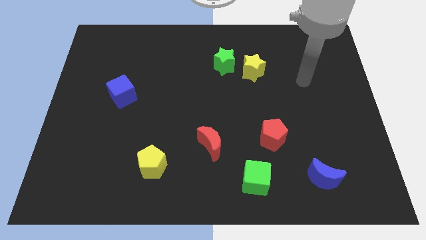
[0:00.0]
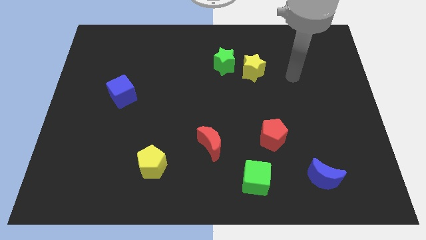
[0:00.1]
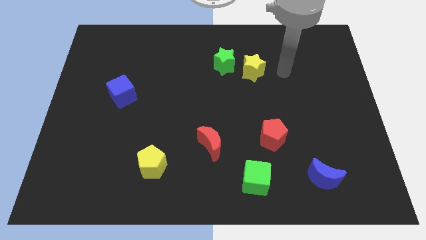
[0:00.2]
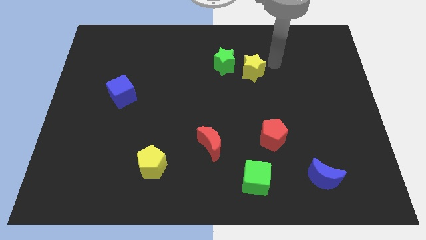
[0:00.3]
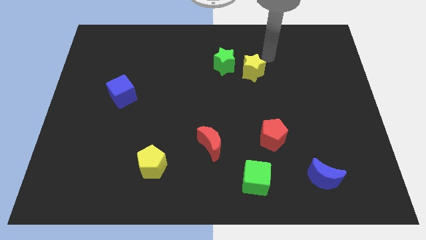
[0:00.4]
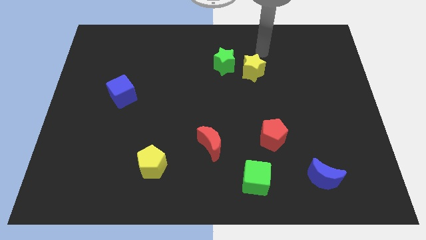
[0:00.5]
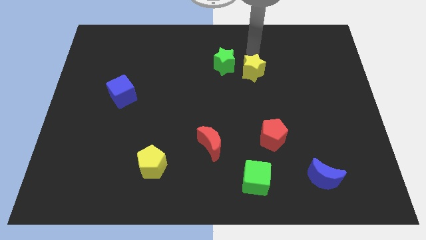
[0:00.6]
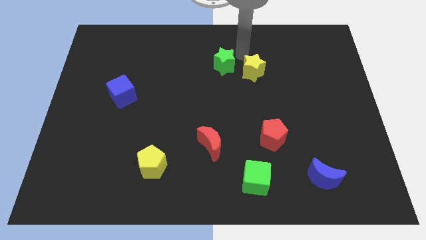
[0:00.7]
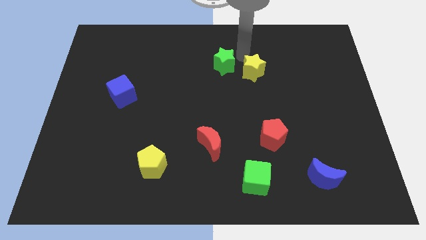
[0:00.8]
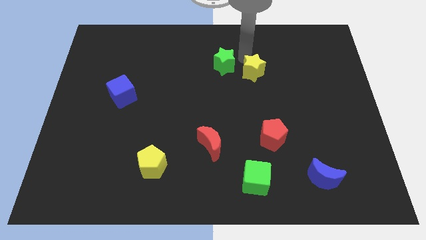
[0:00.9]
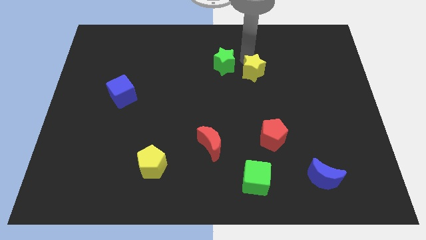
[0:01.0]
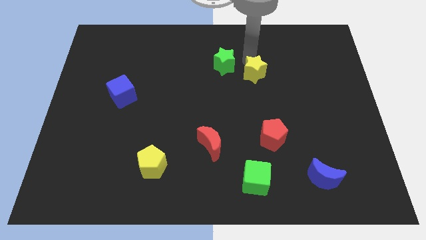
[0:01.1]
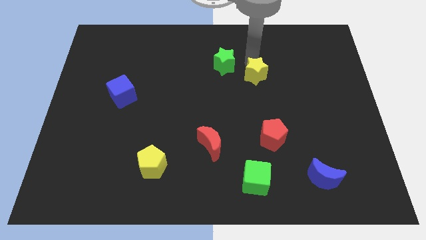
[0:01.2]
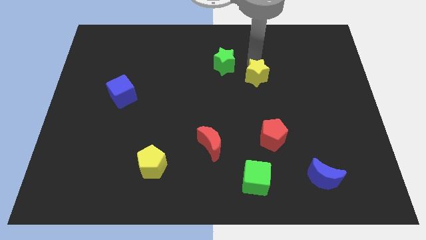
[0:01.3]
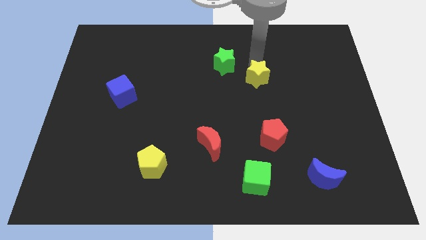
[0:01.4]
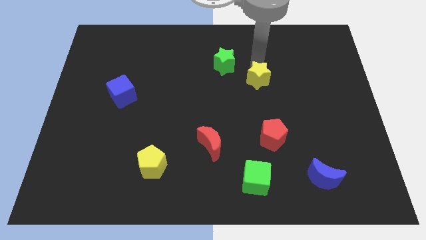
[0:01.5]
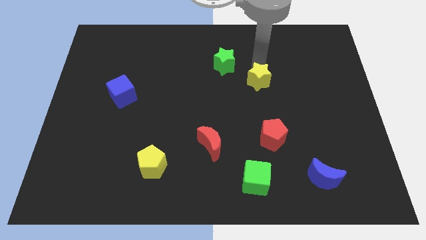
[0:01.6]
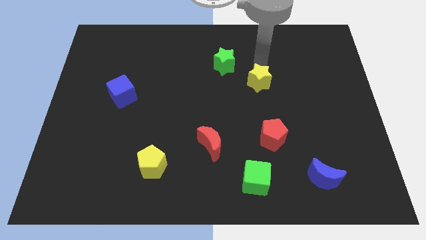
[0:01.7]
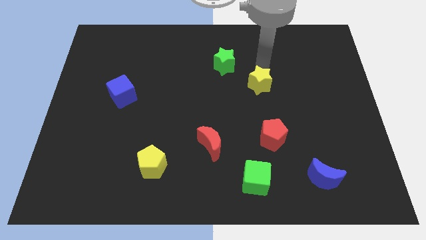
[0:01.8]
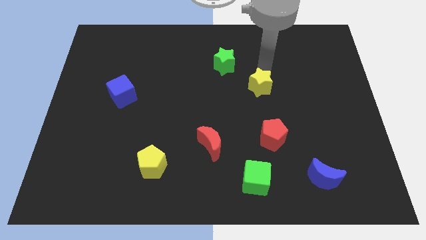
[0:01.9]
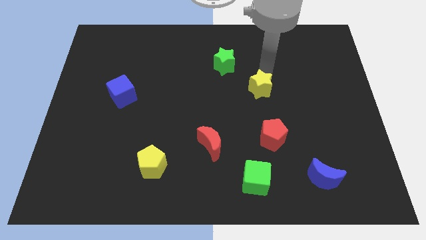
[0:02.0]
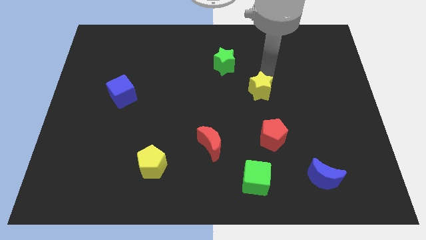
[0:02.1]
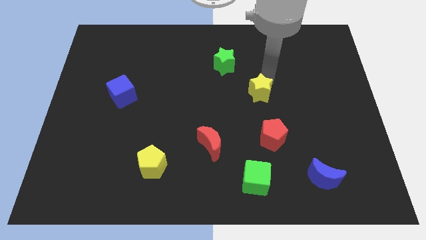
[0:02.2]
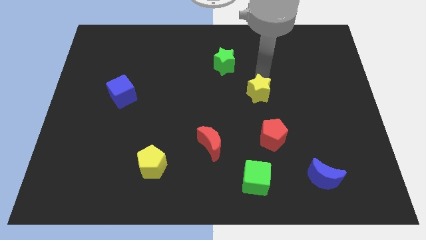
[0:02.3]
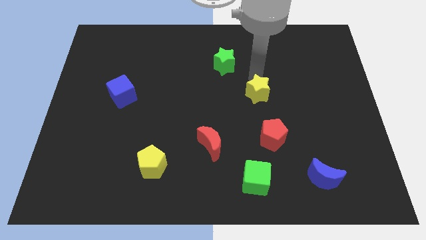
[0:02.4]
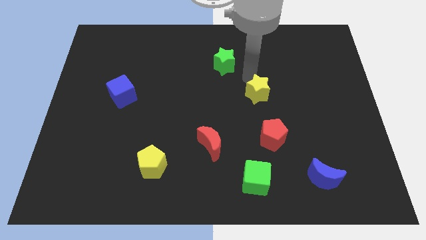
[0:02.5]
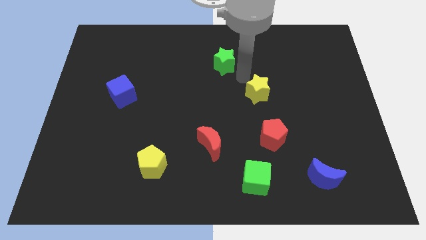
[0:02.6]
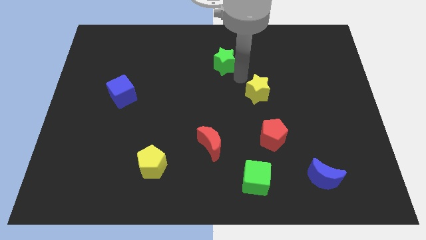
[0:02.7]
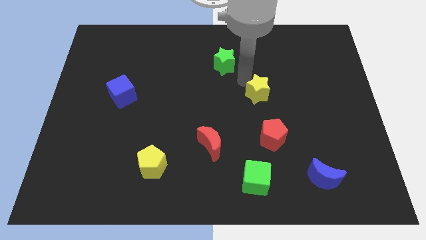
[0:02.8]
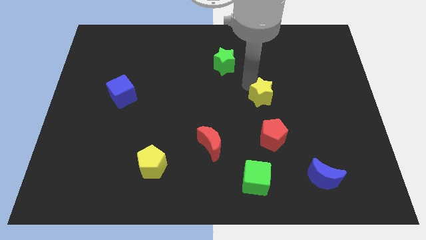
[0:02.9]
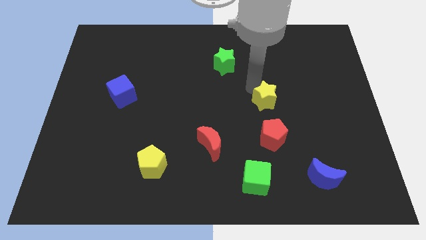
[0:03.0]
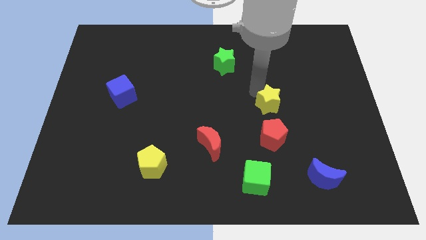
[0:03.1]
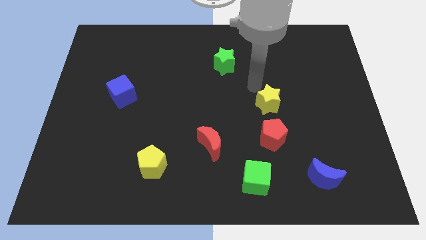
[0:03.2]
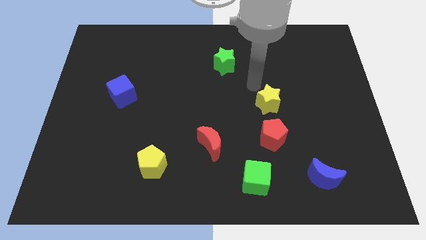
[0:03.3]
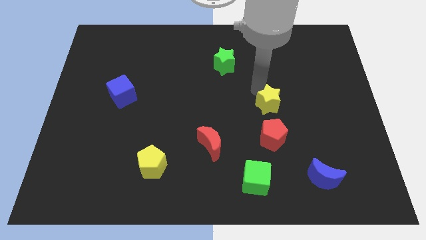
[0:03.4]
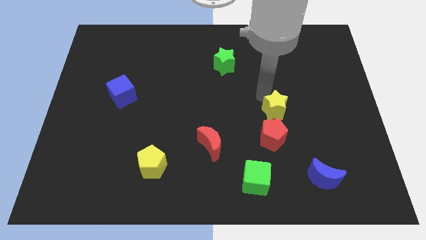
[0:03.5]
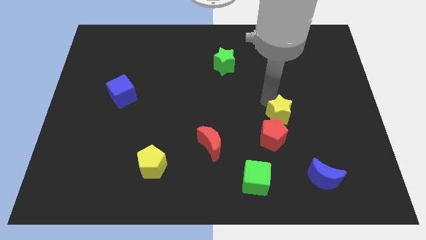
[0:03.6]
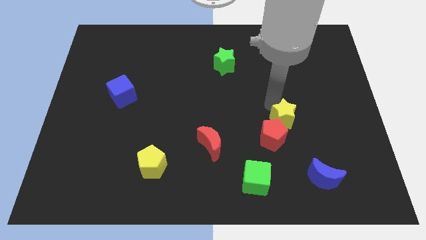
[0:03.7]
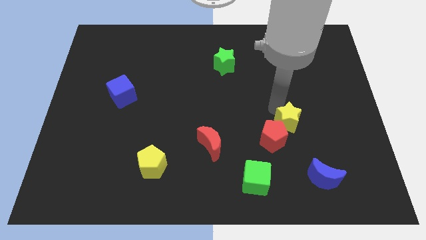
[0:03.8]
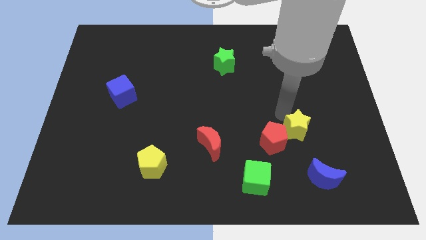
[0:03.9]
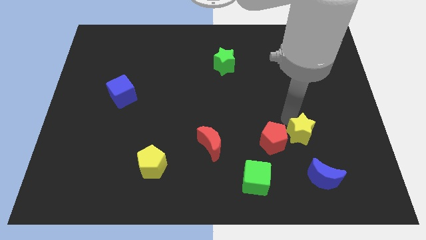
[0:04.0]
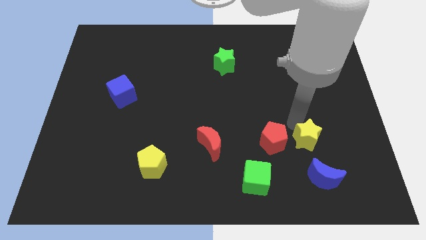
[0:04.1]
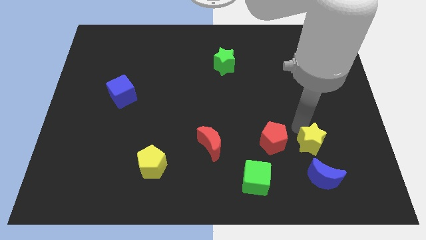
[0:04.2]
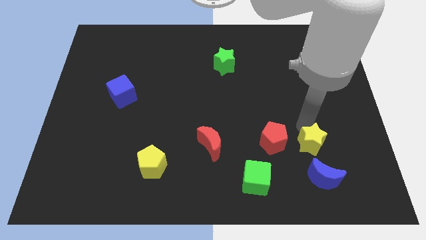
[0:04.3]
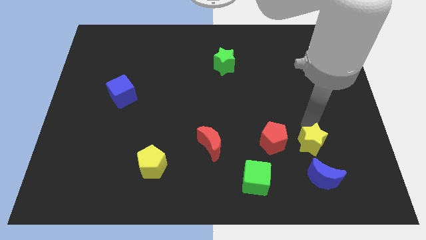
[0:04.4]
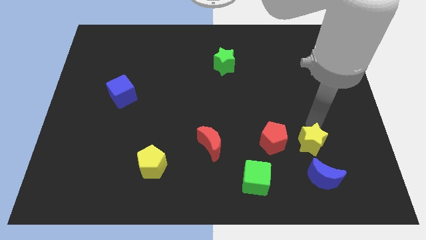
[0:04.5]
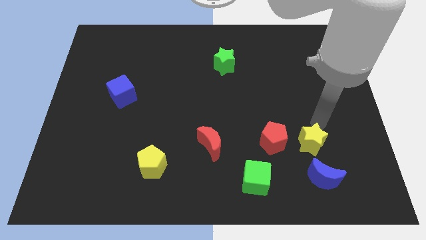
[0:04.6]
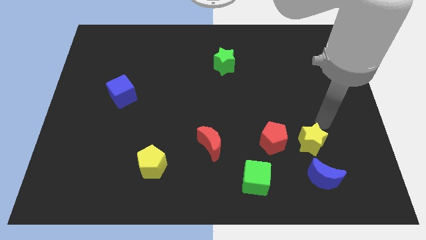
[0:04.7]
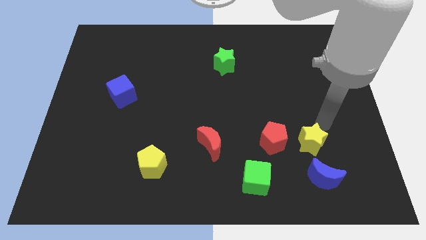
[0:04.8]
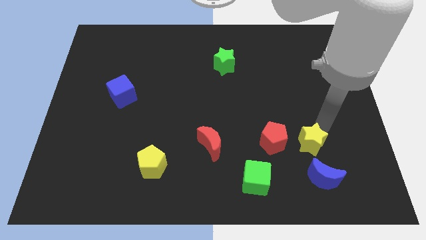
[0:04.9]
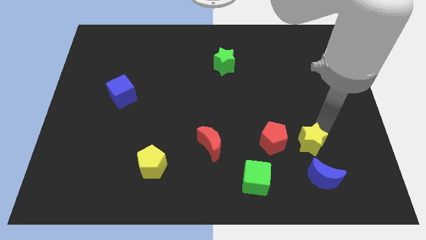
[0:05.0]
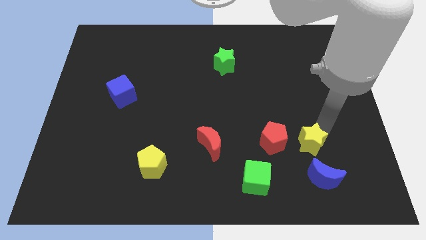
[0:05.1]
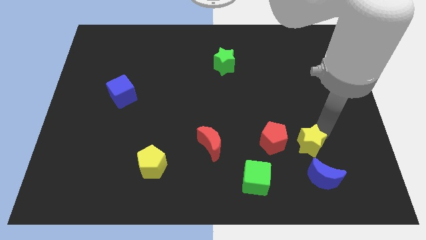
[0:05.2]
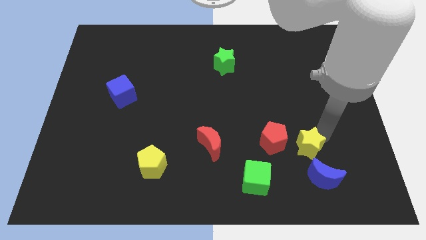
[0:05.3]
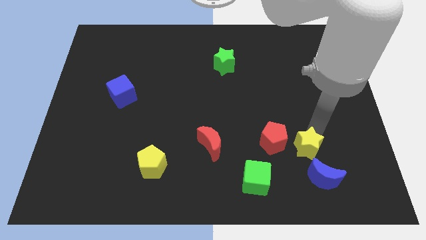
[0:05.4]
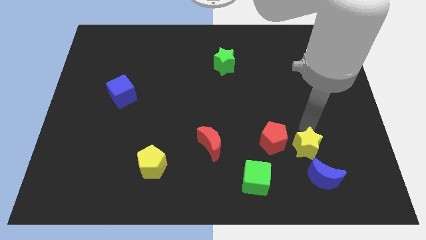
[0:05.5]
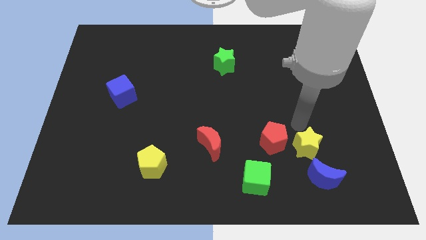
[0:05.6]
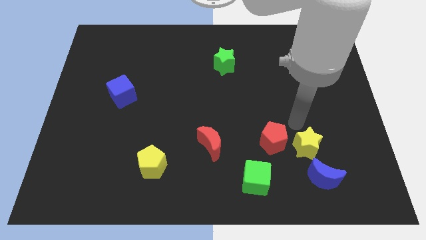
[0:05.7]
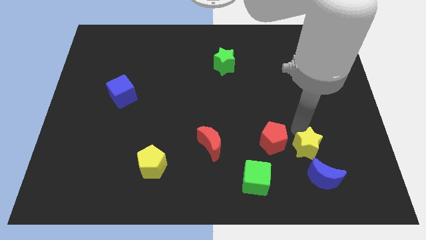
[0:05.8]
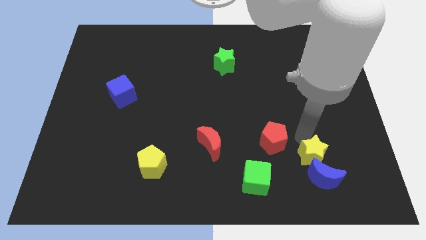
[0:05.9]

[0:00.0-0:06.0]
put the yellow star towards the blue moon

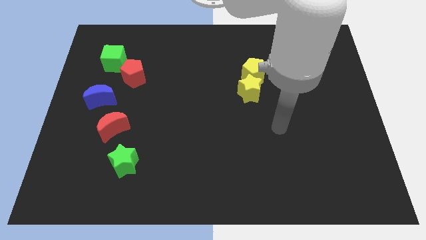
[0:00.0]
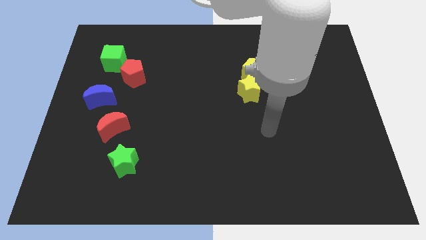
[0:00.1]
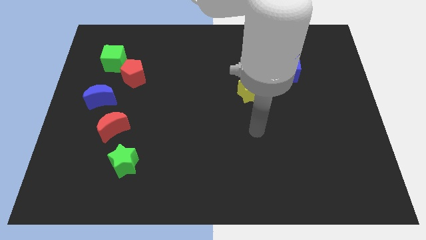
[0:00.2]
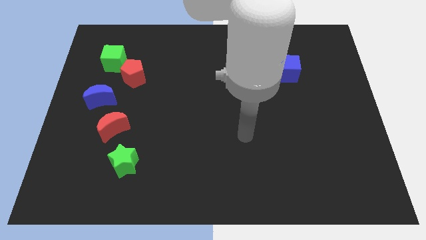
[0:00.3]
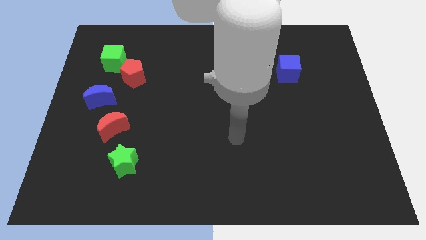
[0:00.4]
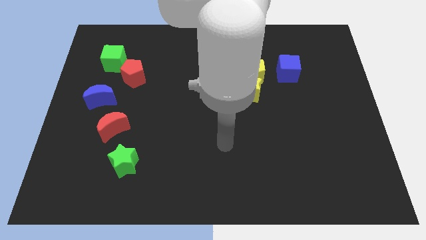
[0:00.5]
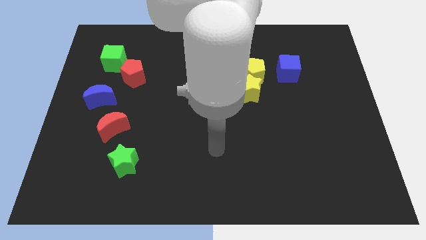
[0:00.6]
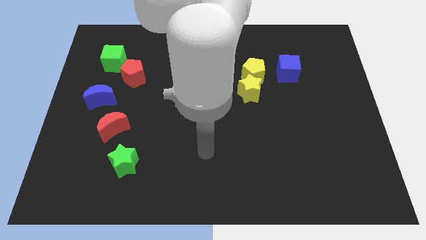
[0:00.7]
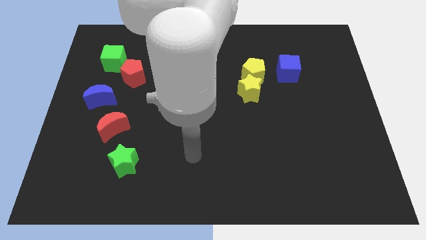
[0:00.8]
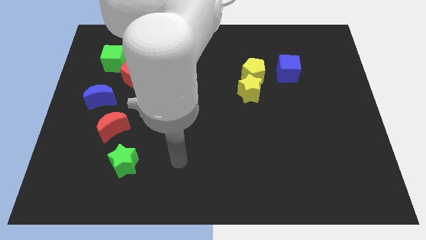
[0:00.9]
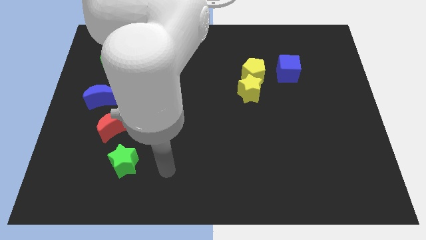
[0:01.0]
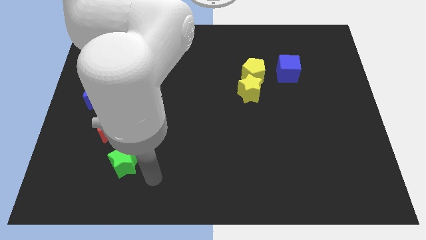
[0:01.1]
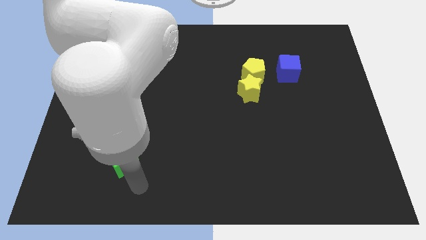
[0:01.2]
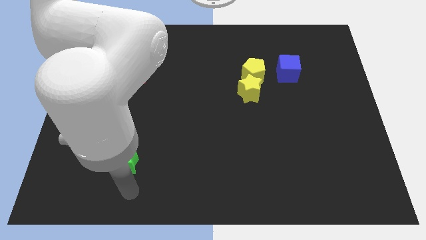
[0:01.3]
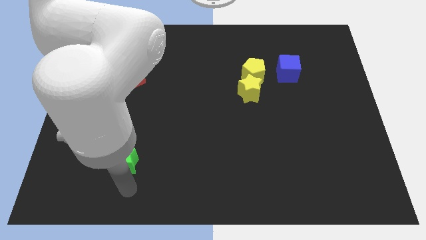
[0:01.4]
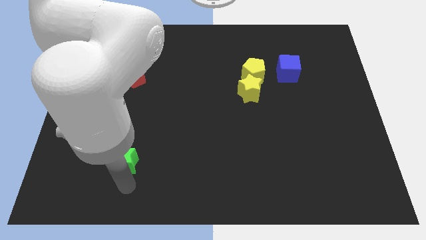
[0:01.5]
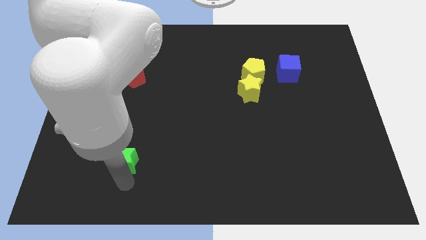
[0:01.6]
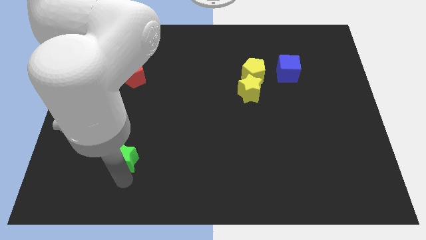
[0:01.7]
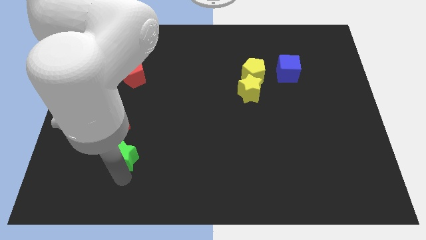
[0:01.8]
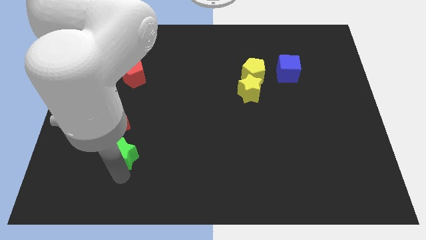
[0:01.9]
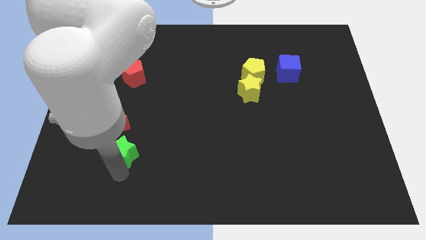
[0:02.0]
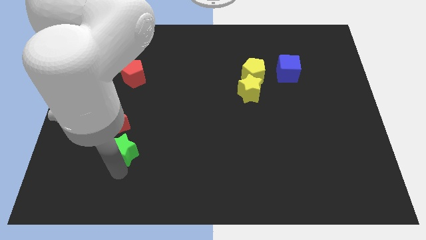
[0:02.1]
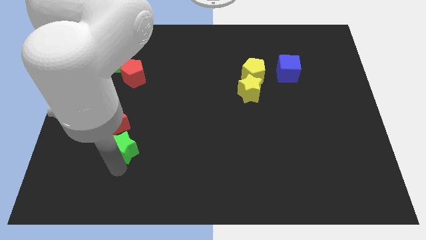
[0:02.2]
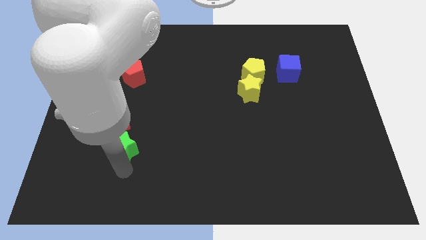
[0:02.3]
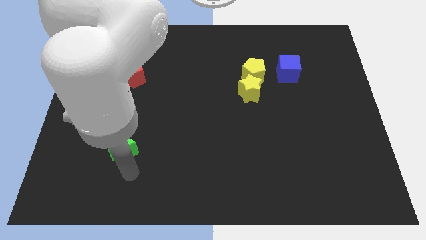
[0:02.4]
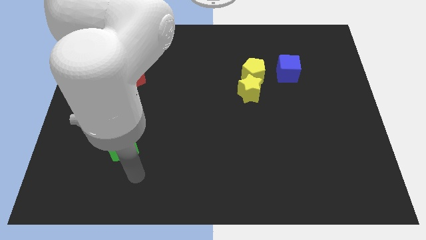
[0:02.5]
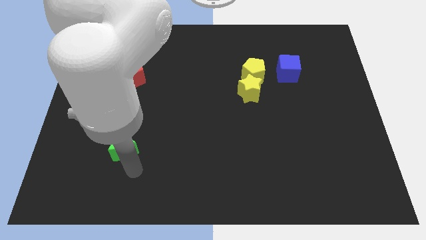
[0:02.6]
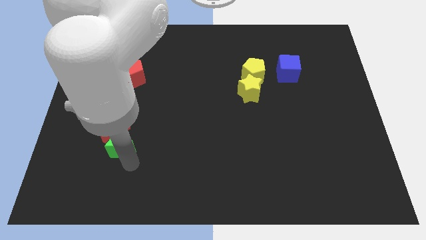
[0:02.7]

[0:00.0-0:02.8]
move the green star next to the red moon
